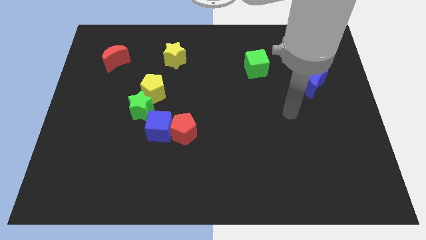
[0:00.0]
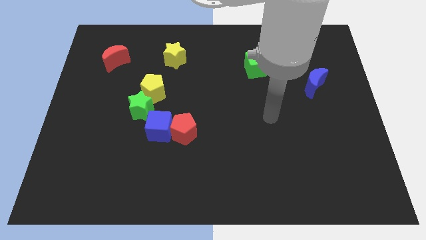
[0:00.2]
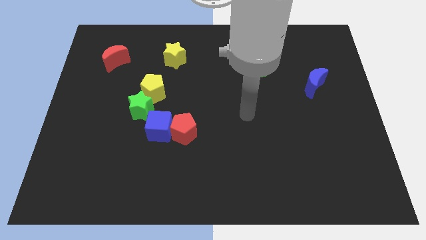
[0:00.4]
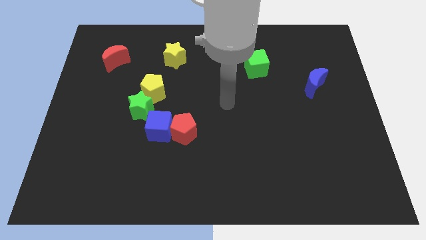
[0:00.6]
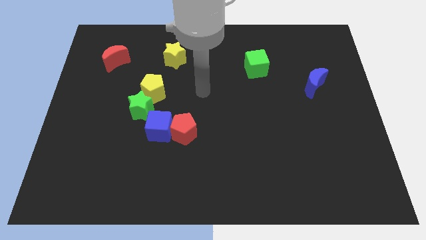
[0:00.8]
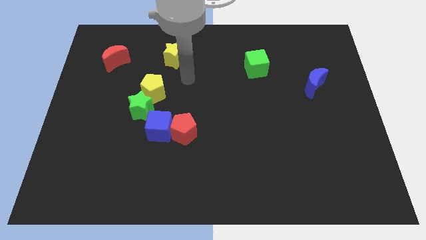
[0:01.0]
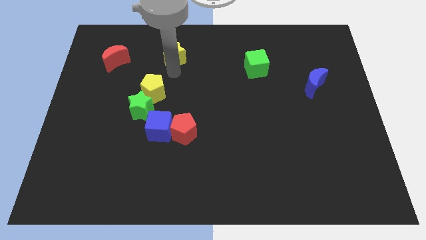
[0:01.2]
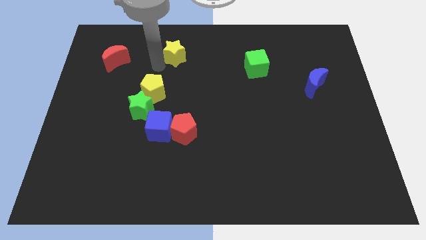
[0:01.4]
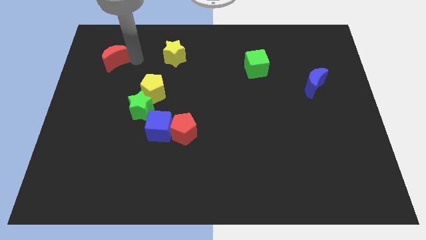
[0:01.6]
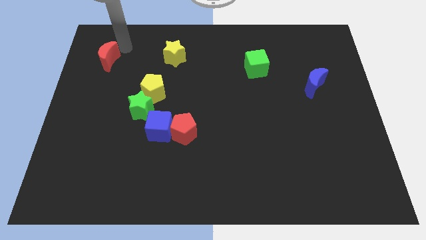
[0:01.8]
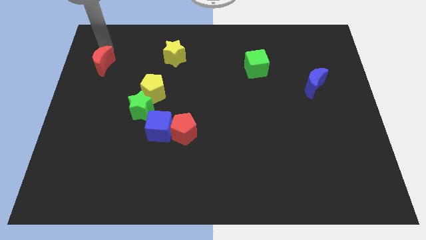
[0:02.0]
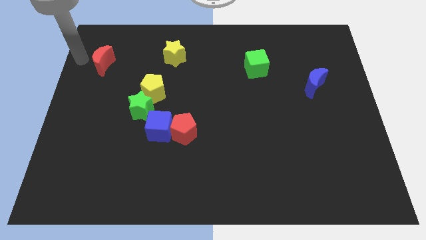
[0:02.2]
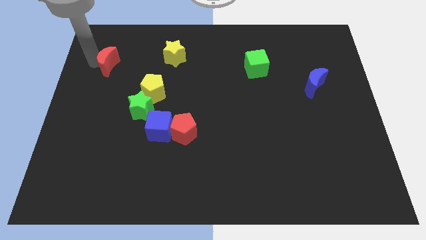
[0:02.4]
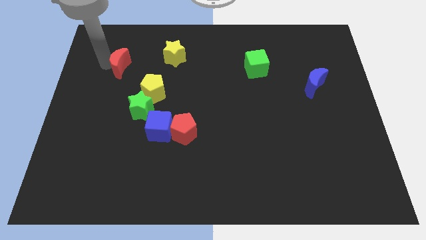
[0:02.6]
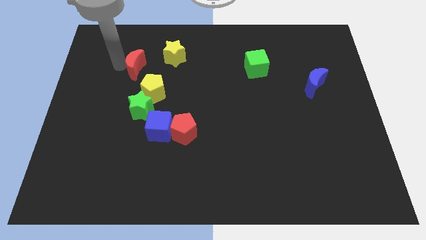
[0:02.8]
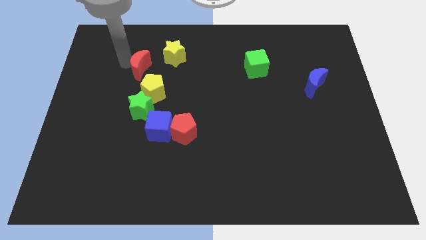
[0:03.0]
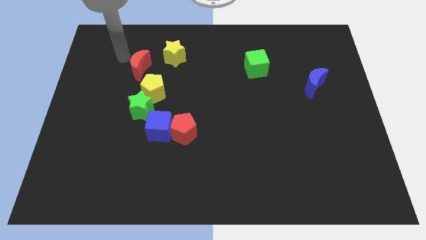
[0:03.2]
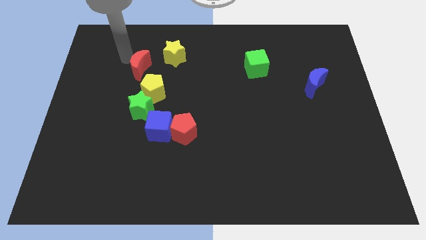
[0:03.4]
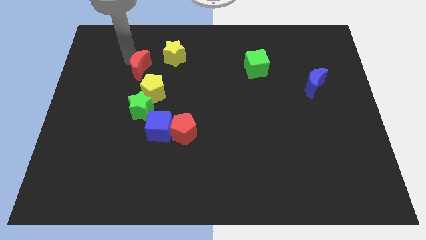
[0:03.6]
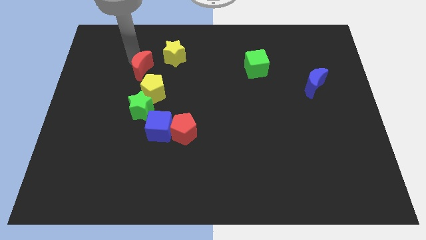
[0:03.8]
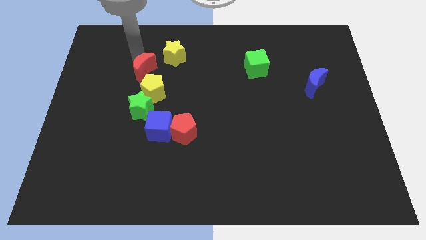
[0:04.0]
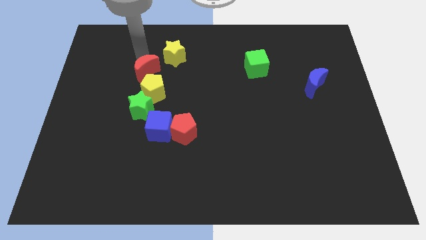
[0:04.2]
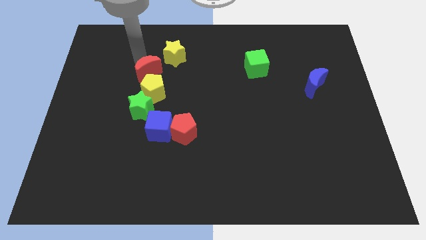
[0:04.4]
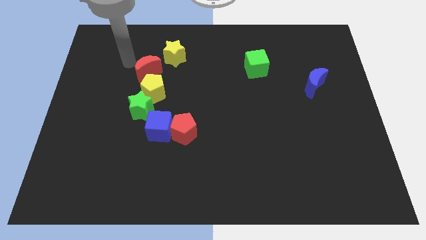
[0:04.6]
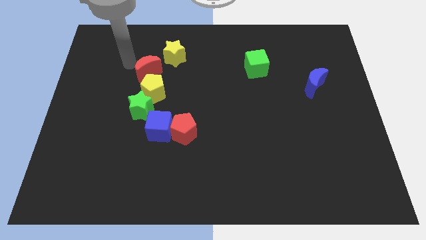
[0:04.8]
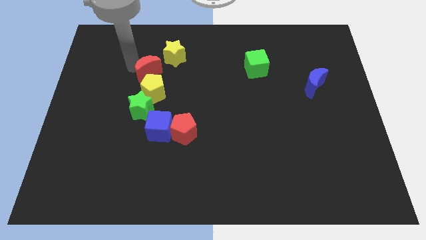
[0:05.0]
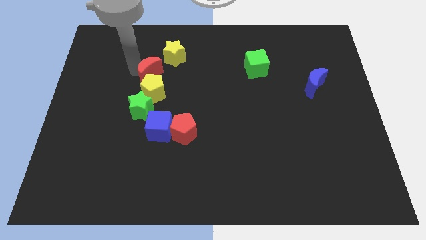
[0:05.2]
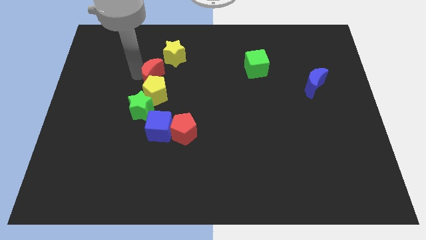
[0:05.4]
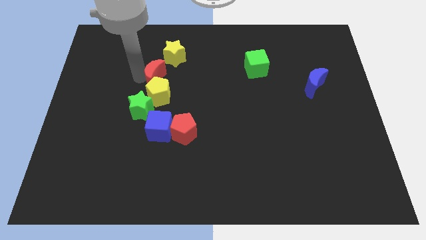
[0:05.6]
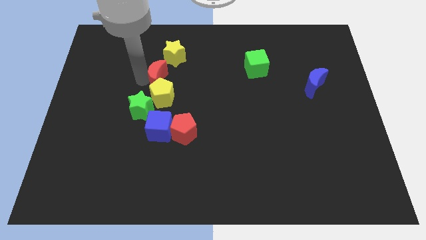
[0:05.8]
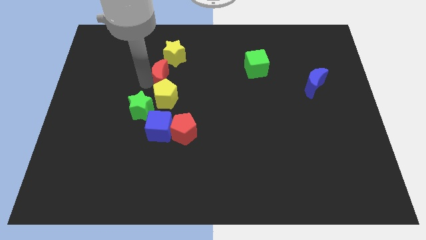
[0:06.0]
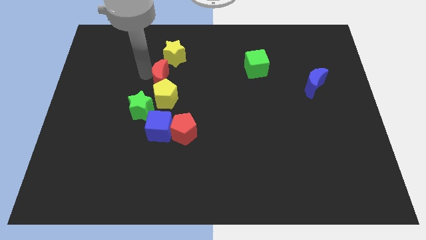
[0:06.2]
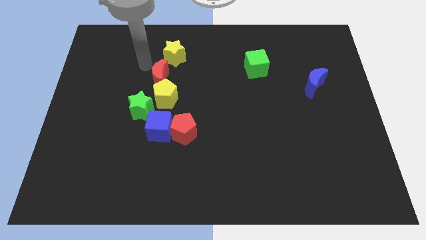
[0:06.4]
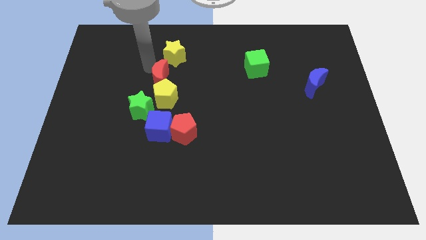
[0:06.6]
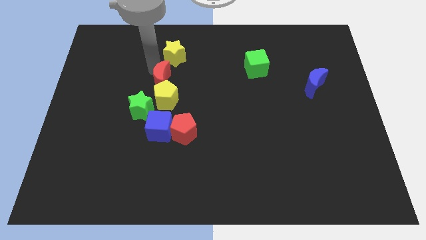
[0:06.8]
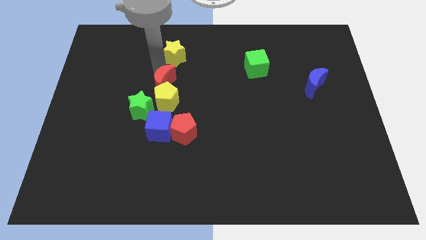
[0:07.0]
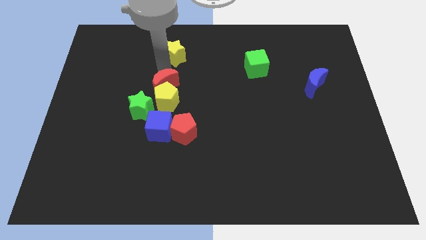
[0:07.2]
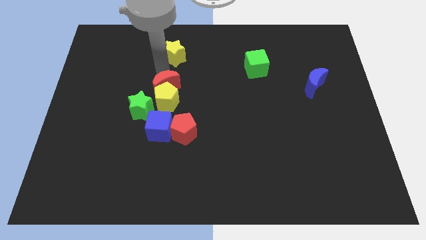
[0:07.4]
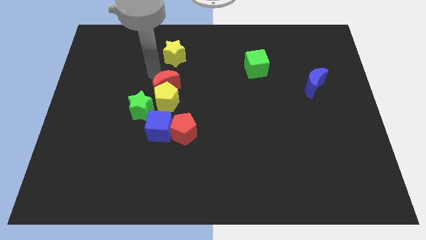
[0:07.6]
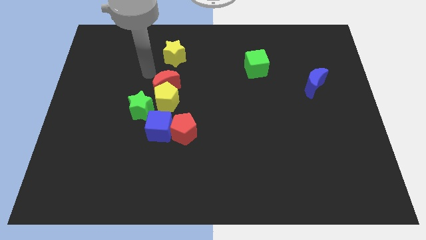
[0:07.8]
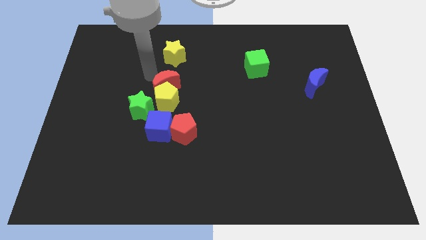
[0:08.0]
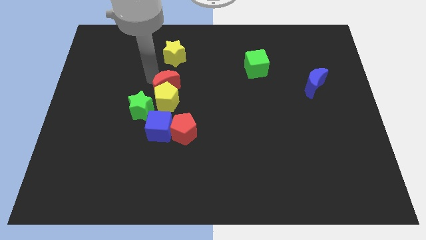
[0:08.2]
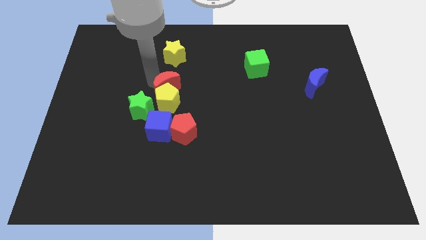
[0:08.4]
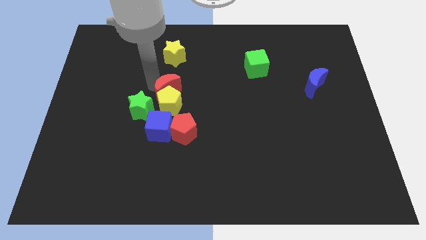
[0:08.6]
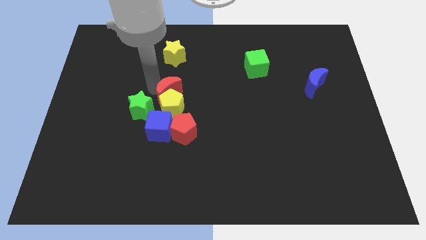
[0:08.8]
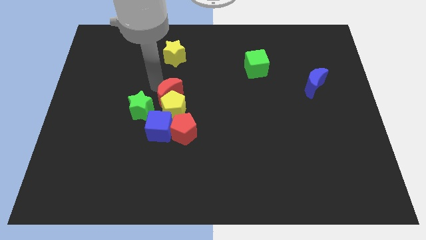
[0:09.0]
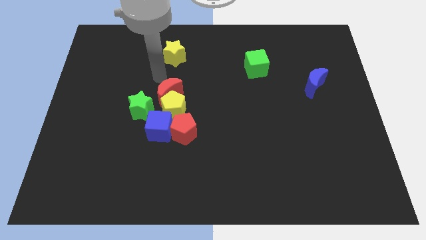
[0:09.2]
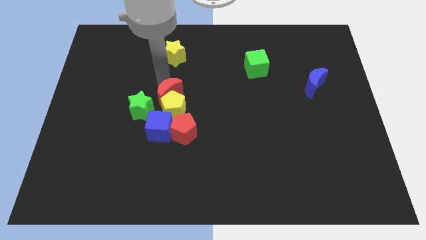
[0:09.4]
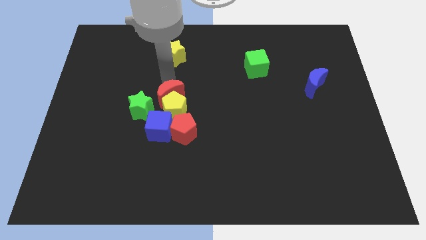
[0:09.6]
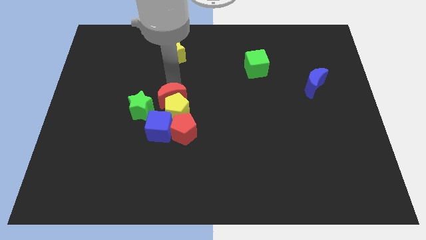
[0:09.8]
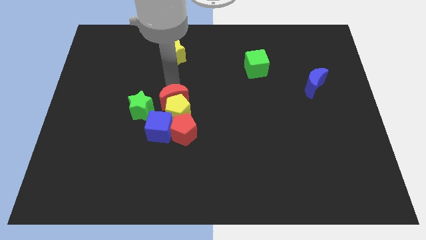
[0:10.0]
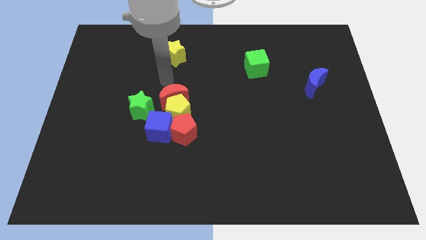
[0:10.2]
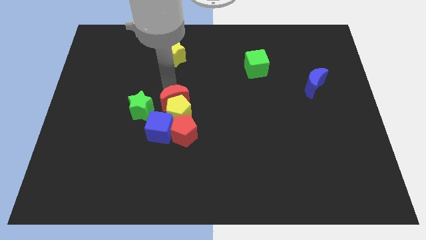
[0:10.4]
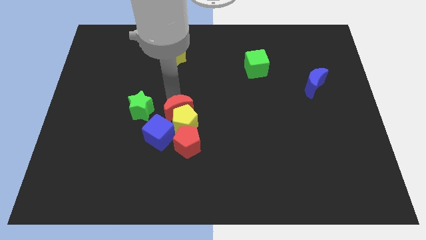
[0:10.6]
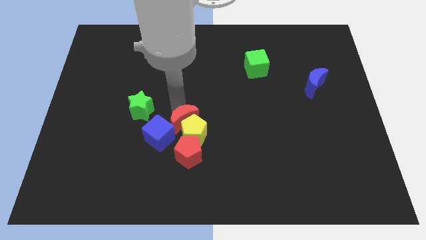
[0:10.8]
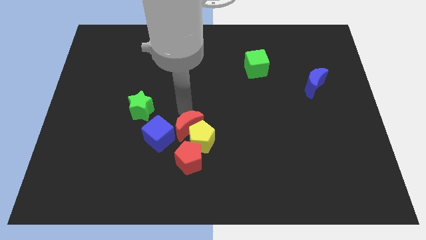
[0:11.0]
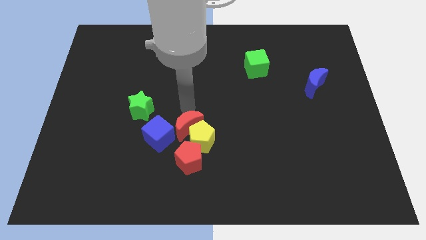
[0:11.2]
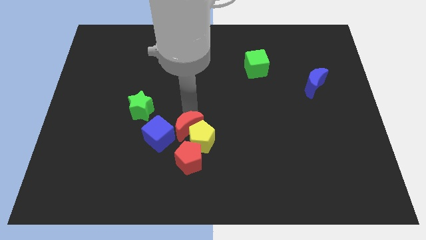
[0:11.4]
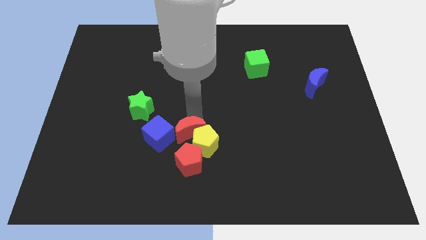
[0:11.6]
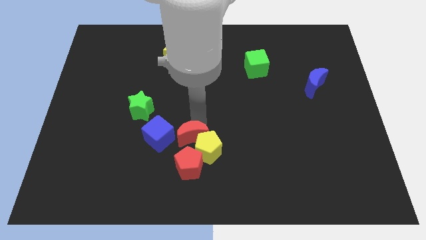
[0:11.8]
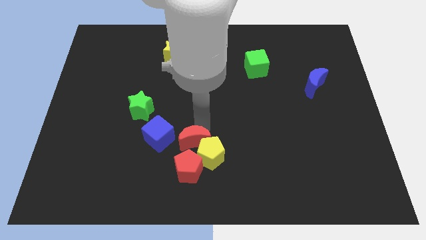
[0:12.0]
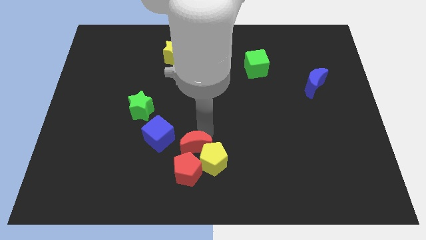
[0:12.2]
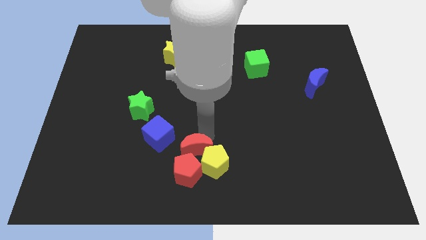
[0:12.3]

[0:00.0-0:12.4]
push the red moon to the red pentagon

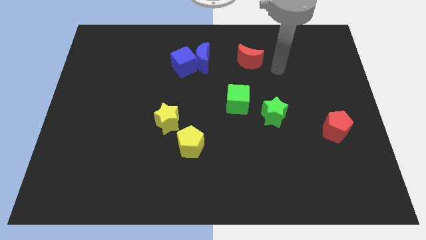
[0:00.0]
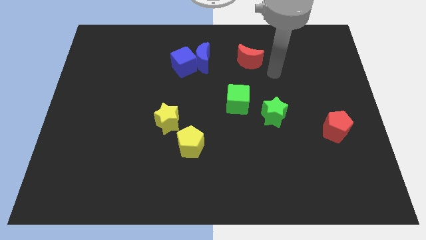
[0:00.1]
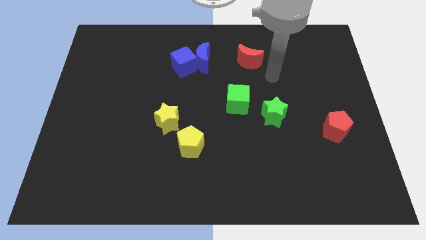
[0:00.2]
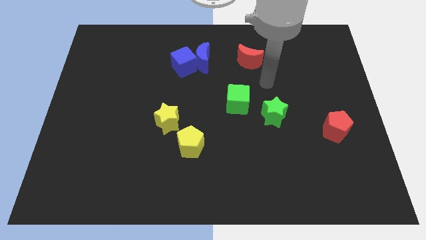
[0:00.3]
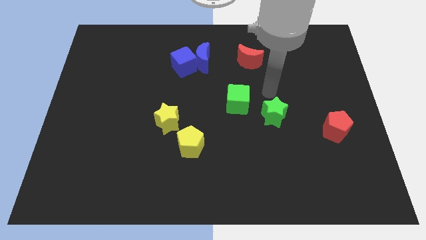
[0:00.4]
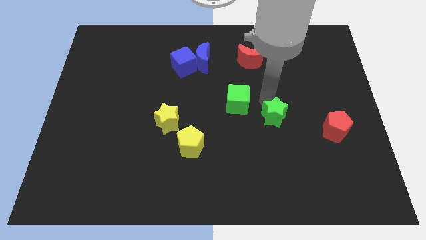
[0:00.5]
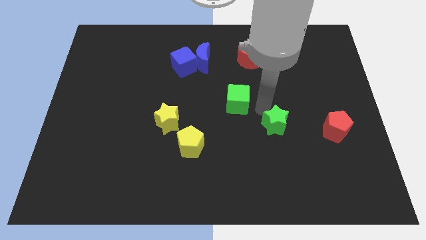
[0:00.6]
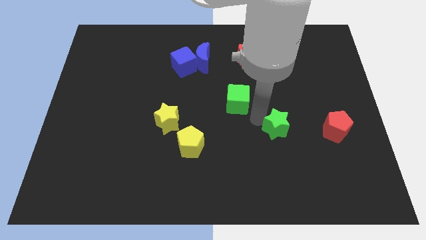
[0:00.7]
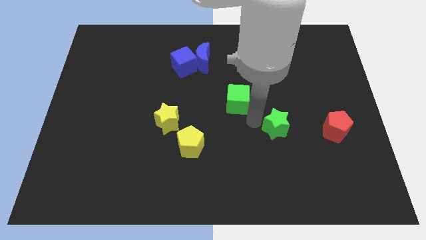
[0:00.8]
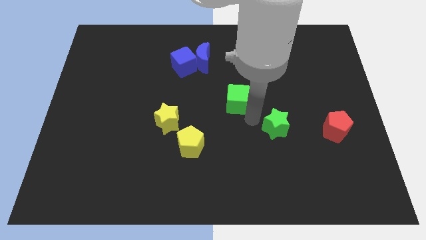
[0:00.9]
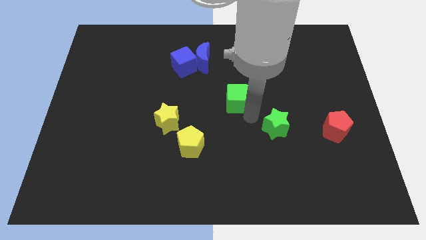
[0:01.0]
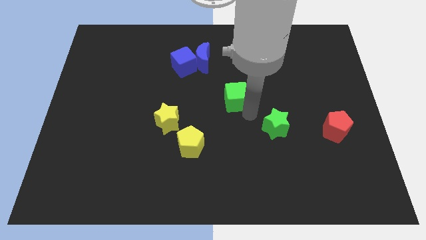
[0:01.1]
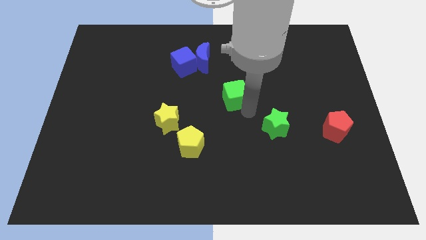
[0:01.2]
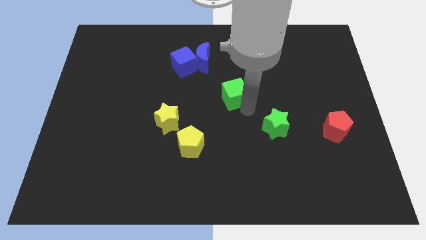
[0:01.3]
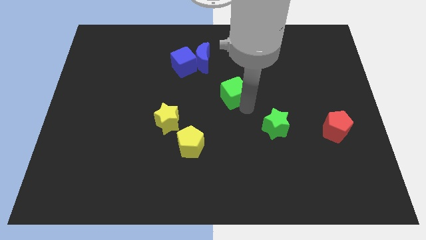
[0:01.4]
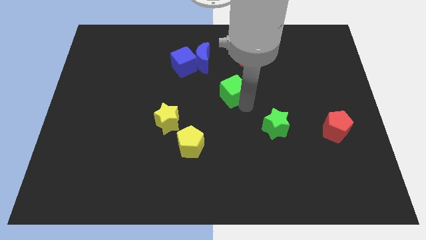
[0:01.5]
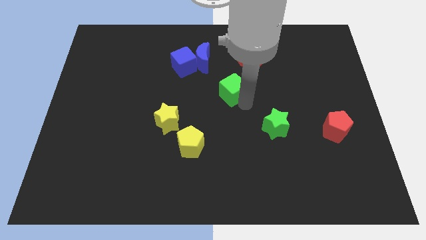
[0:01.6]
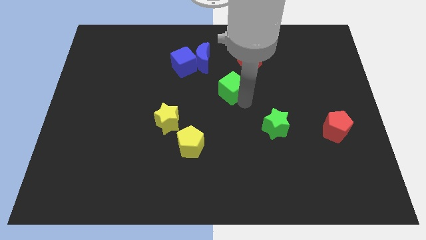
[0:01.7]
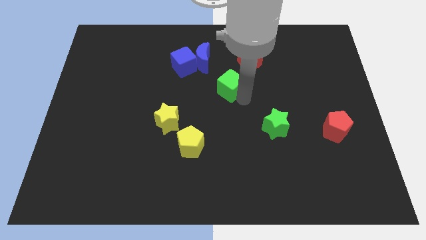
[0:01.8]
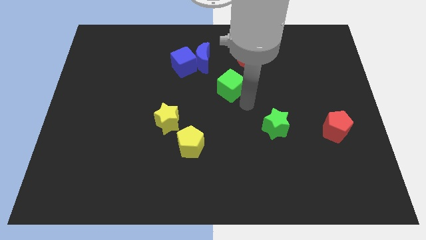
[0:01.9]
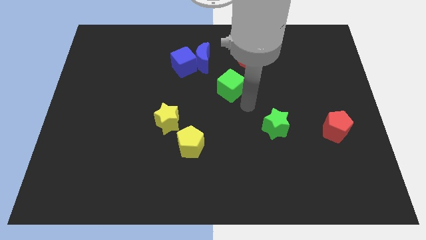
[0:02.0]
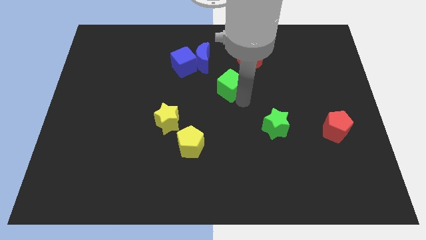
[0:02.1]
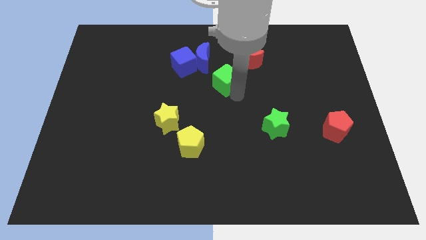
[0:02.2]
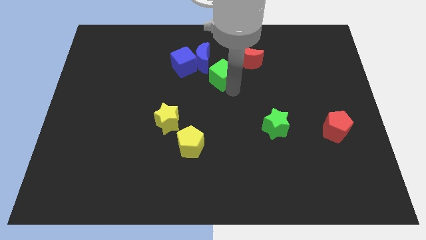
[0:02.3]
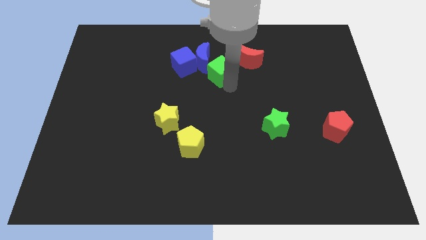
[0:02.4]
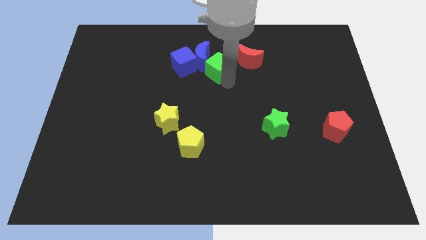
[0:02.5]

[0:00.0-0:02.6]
slide the green cube close to the blue moon
